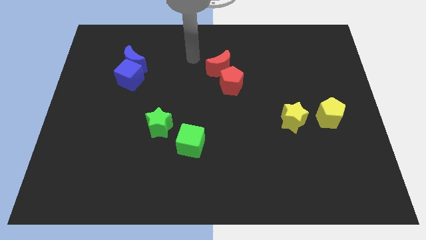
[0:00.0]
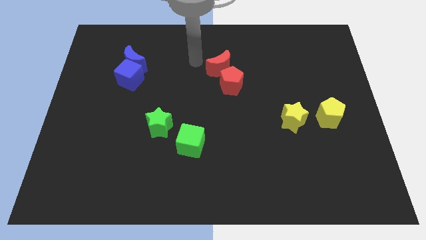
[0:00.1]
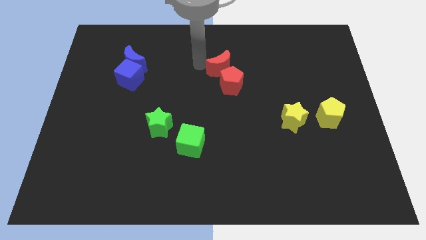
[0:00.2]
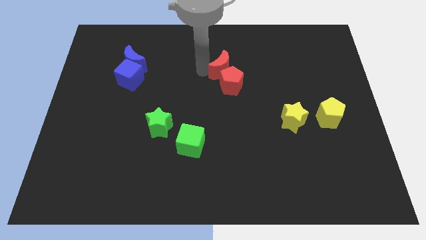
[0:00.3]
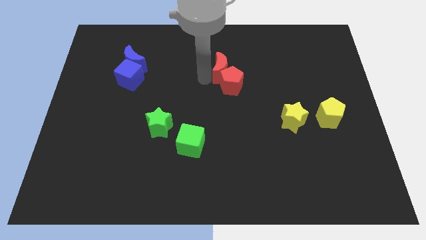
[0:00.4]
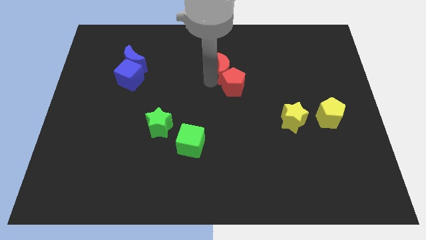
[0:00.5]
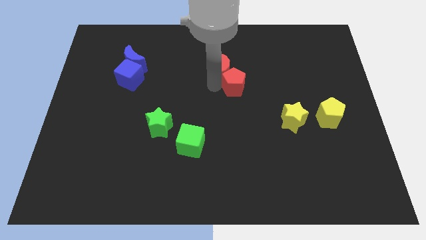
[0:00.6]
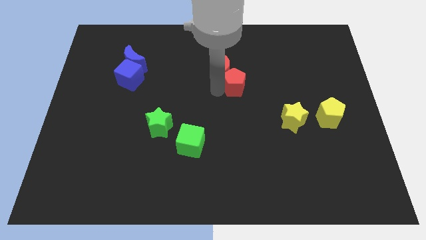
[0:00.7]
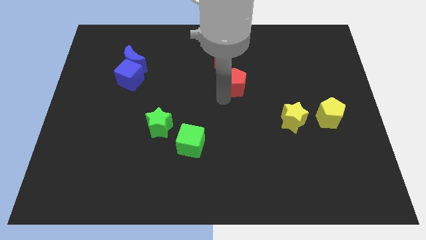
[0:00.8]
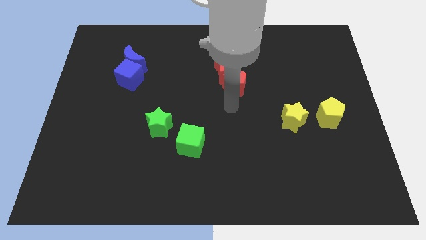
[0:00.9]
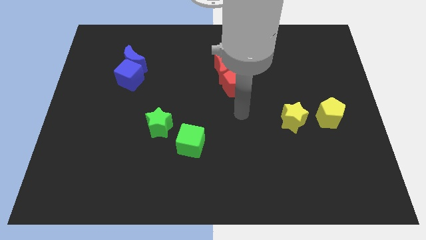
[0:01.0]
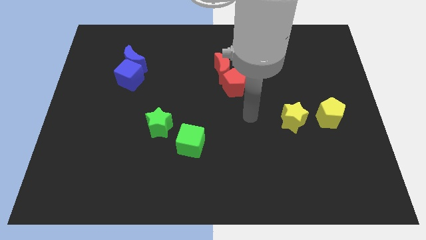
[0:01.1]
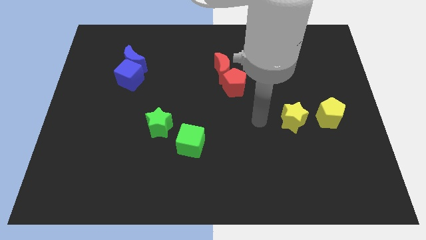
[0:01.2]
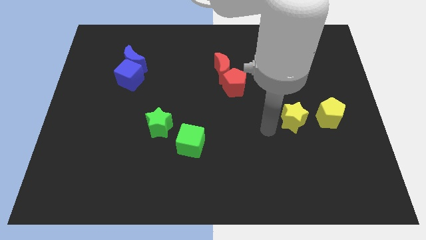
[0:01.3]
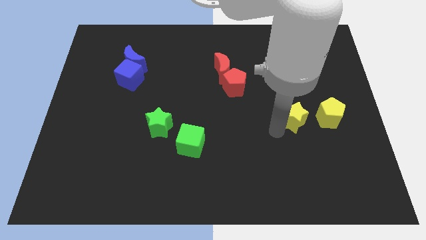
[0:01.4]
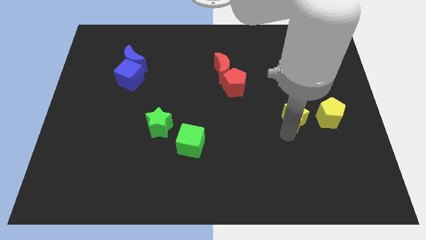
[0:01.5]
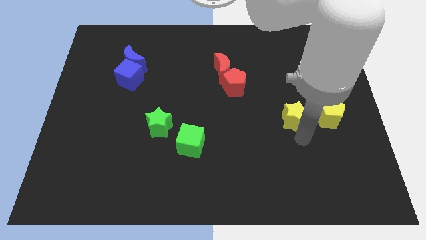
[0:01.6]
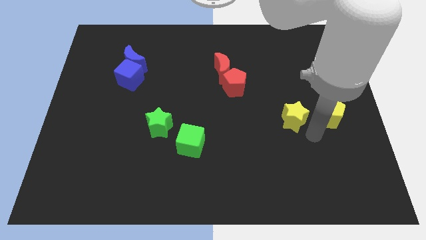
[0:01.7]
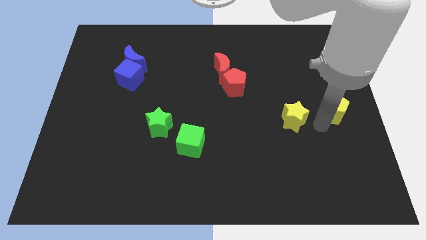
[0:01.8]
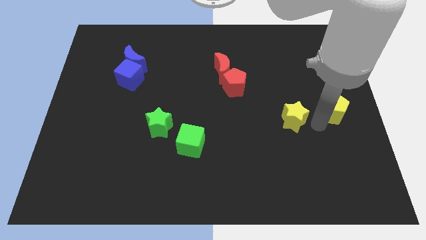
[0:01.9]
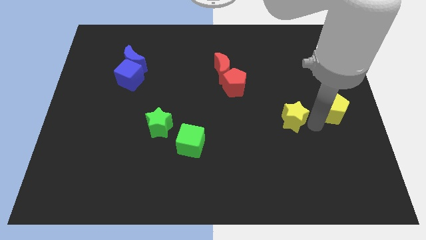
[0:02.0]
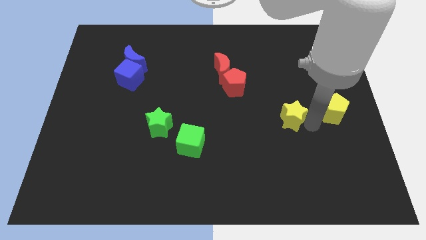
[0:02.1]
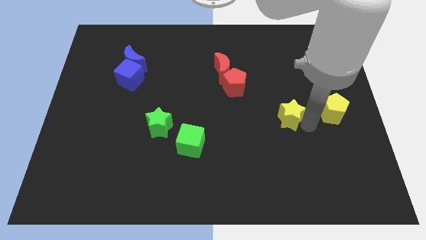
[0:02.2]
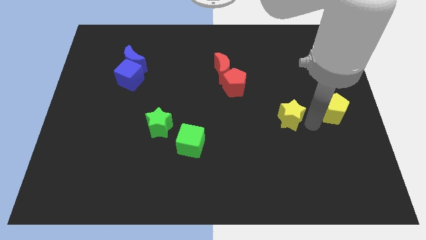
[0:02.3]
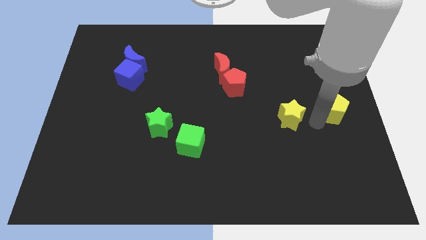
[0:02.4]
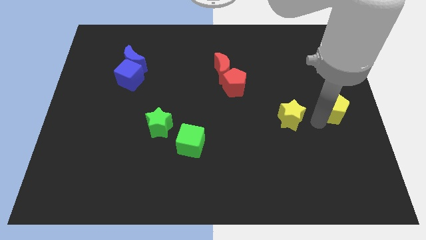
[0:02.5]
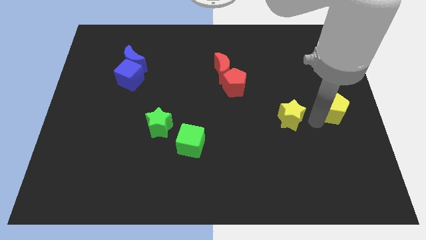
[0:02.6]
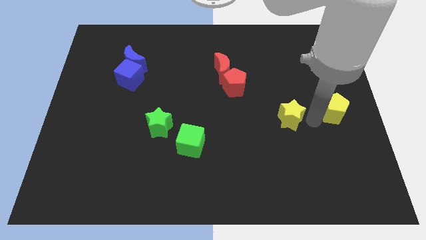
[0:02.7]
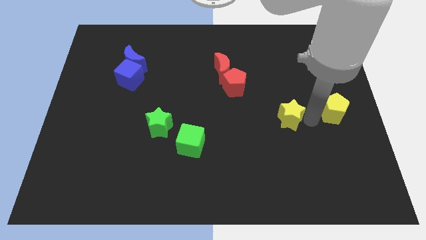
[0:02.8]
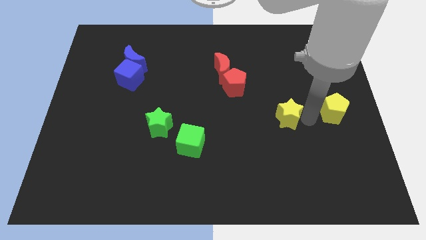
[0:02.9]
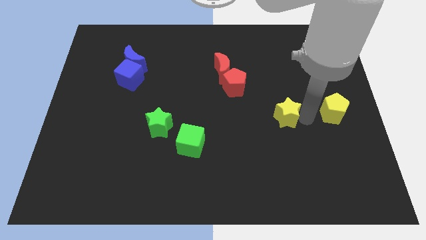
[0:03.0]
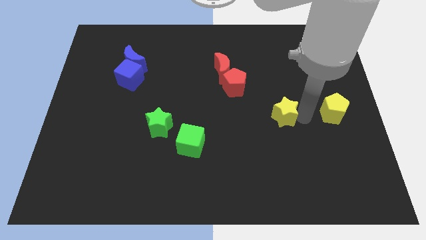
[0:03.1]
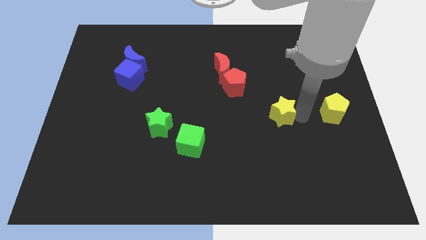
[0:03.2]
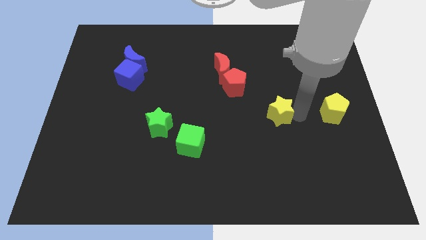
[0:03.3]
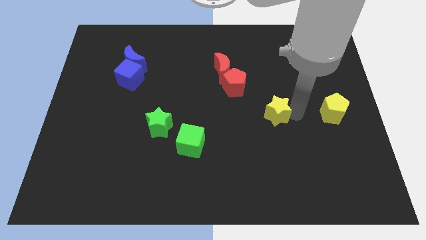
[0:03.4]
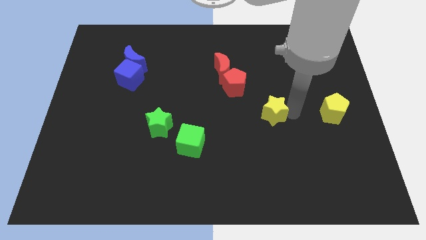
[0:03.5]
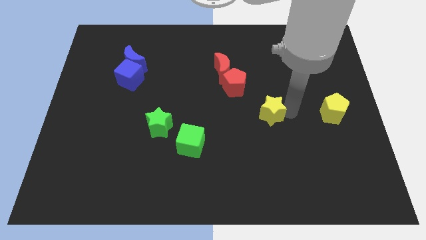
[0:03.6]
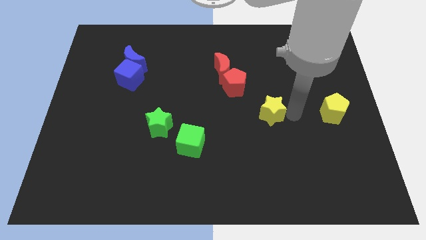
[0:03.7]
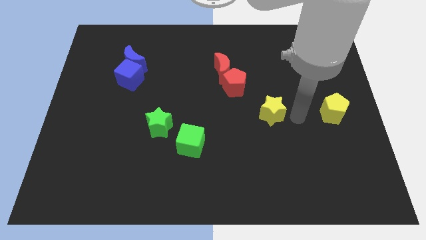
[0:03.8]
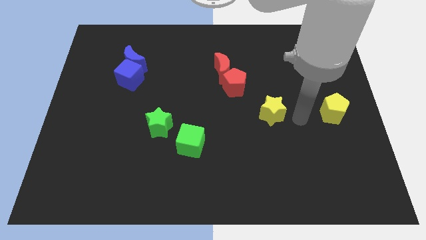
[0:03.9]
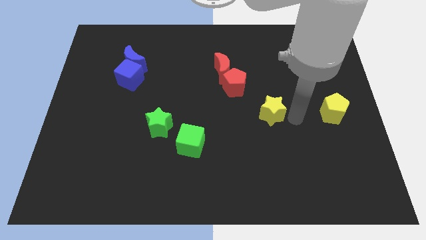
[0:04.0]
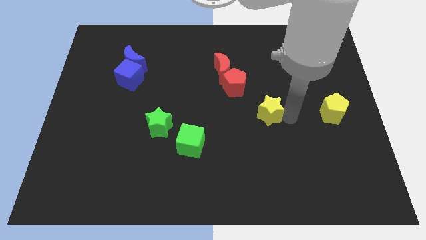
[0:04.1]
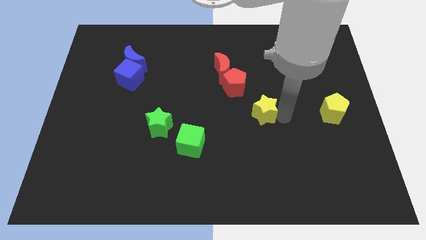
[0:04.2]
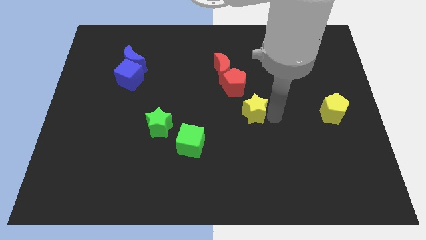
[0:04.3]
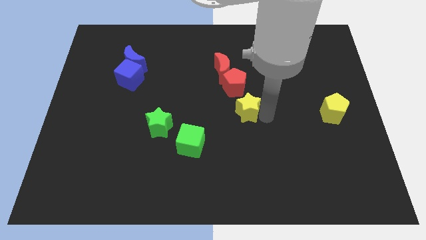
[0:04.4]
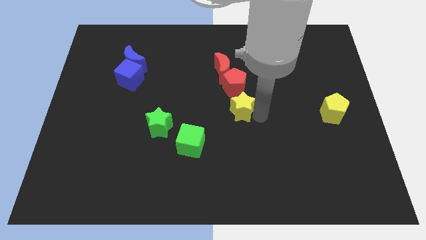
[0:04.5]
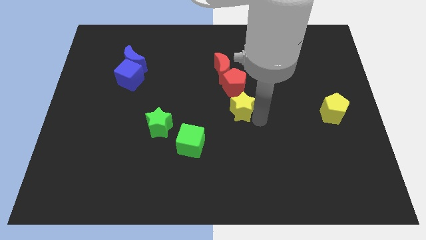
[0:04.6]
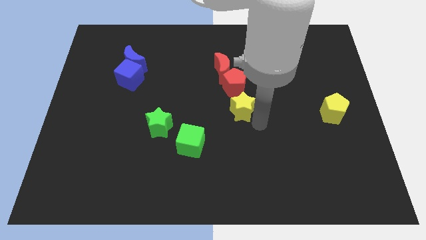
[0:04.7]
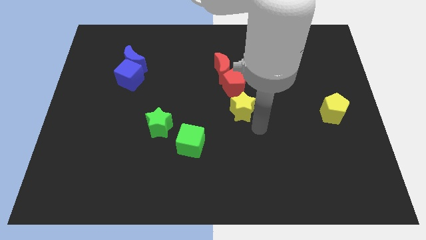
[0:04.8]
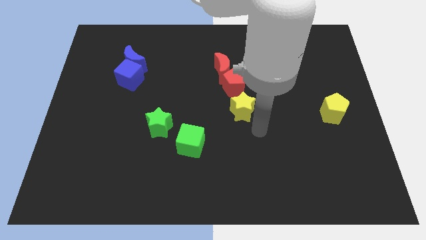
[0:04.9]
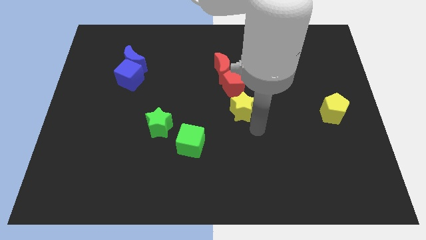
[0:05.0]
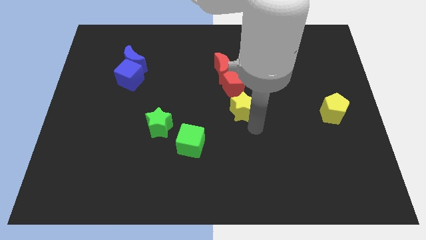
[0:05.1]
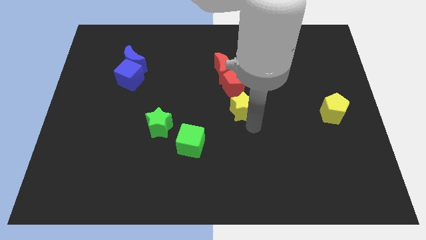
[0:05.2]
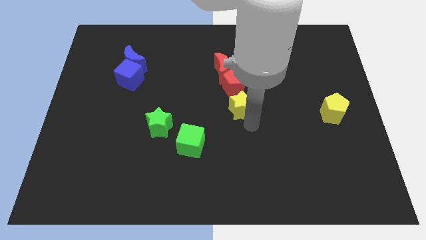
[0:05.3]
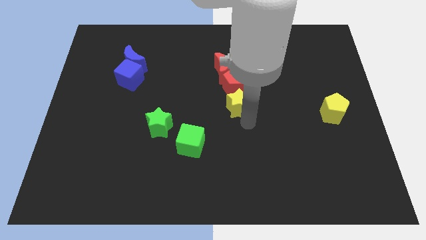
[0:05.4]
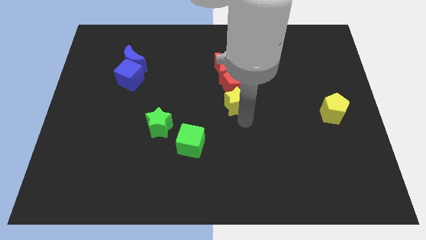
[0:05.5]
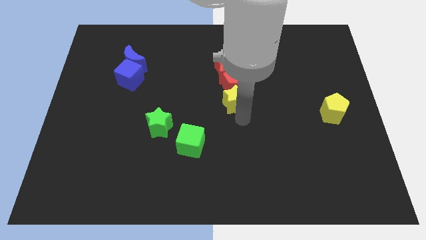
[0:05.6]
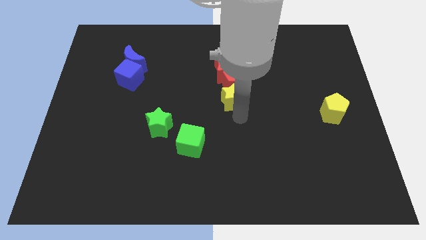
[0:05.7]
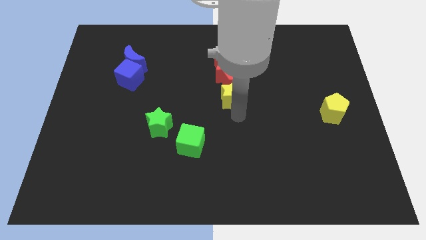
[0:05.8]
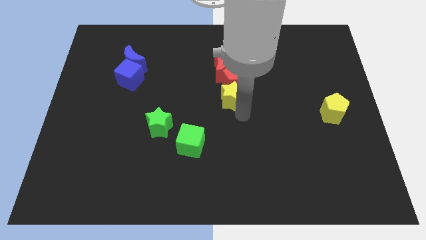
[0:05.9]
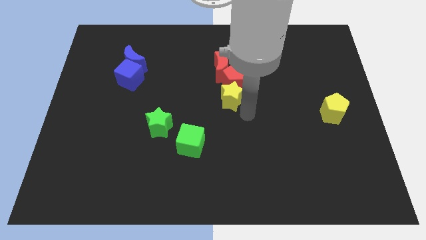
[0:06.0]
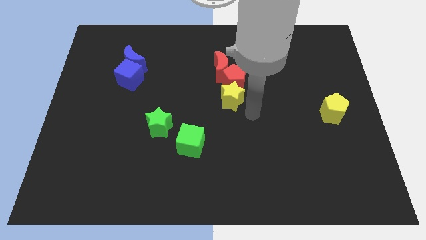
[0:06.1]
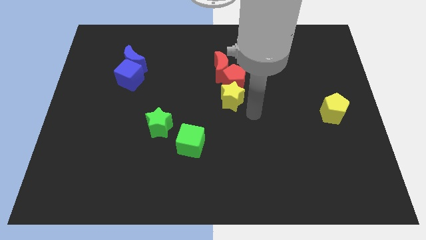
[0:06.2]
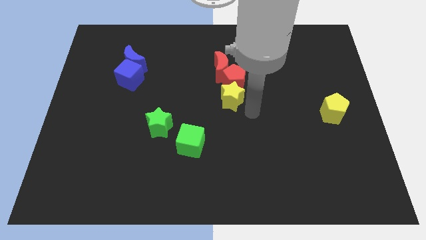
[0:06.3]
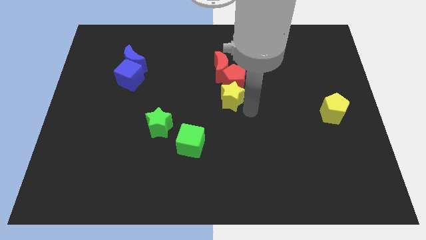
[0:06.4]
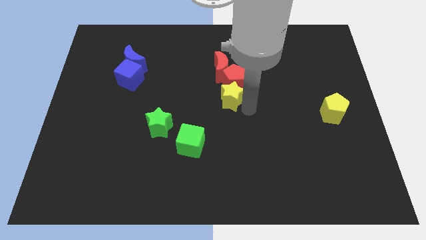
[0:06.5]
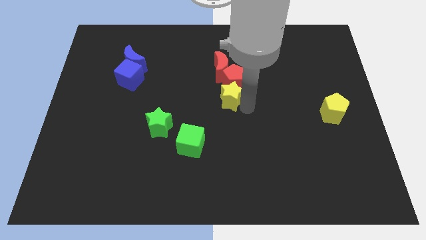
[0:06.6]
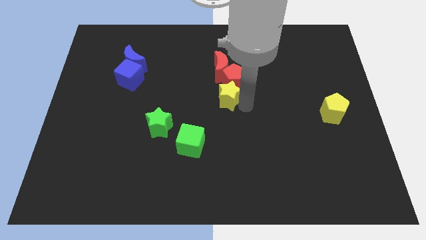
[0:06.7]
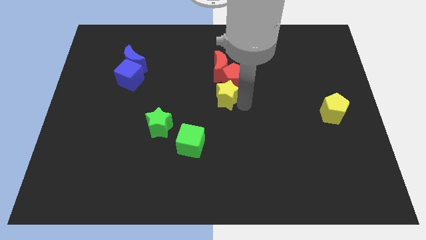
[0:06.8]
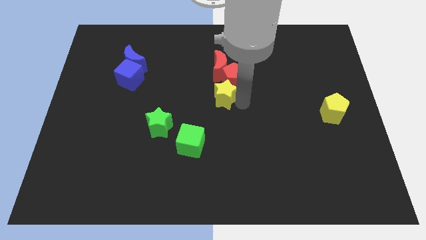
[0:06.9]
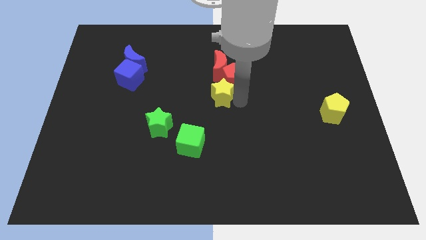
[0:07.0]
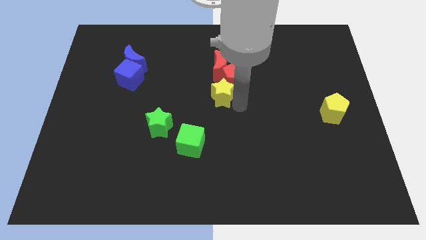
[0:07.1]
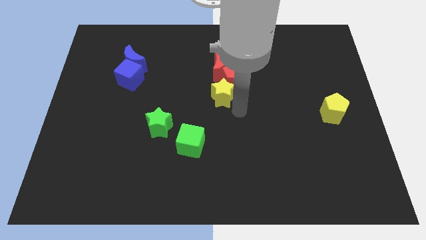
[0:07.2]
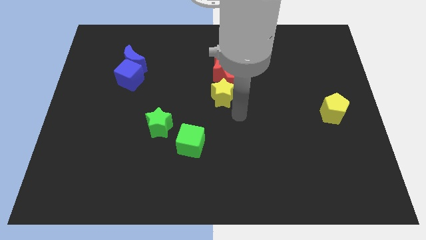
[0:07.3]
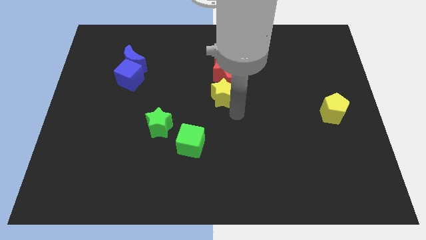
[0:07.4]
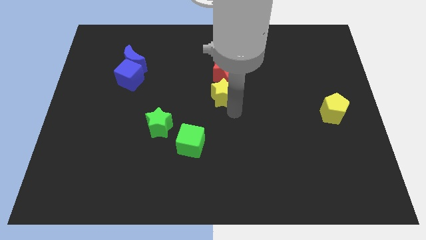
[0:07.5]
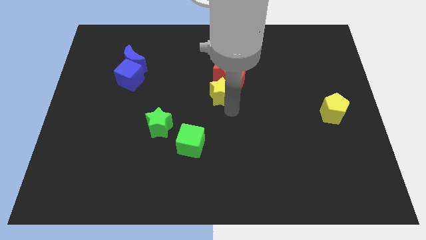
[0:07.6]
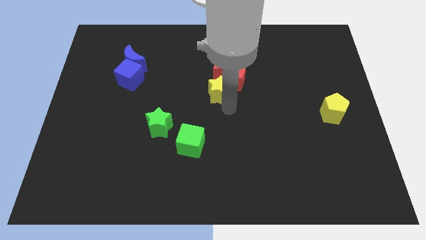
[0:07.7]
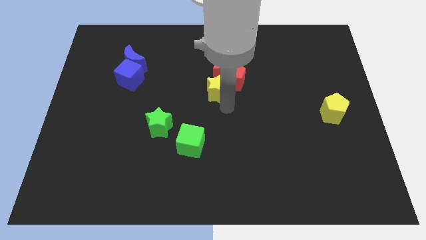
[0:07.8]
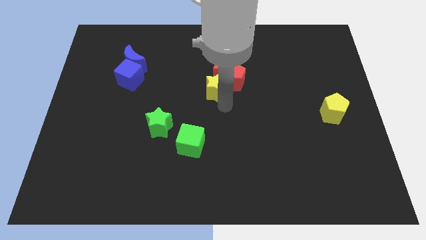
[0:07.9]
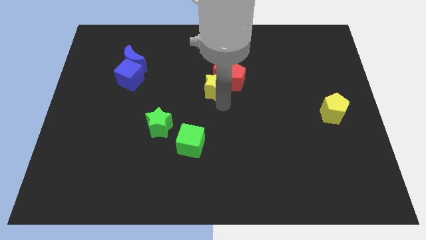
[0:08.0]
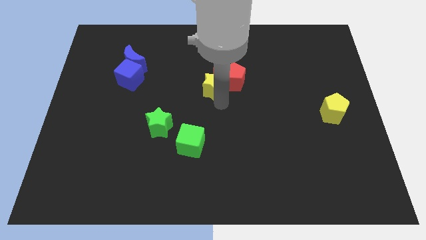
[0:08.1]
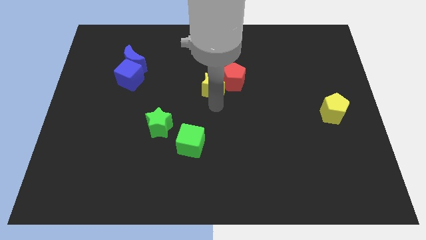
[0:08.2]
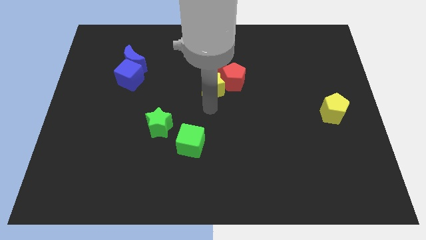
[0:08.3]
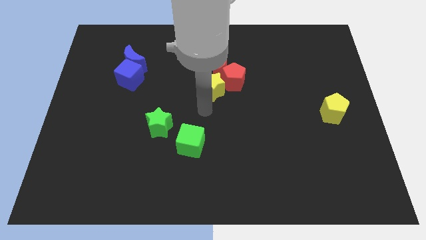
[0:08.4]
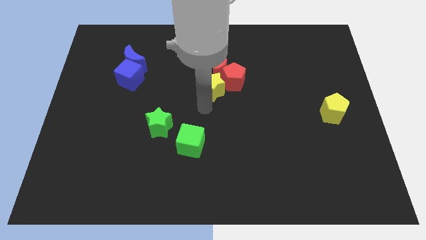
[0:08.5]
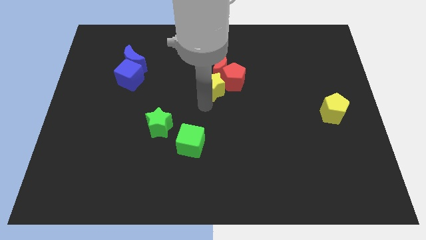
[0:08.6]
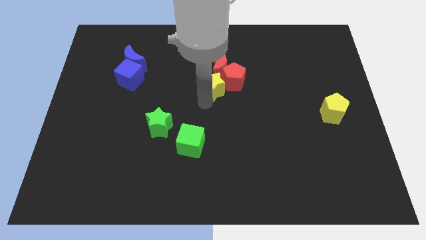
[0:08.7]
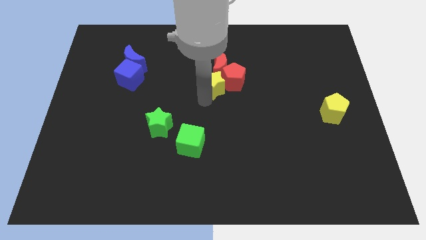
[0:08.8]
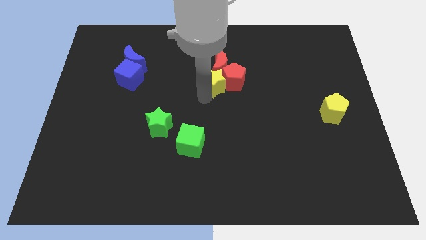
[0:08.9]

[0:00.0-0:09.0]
slide the yellow star next to the red moon
